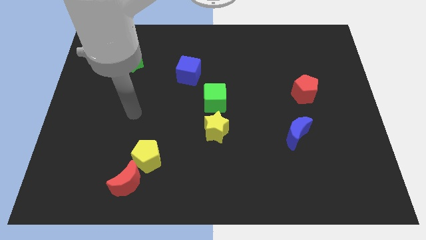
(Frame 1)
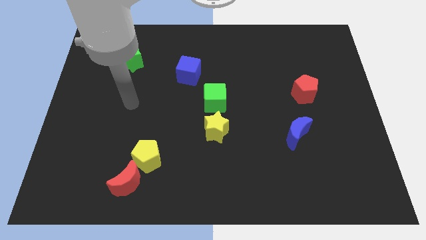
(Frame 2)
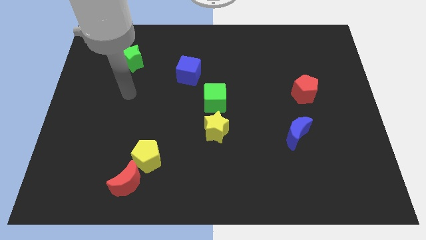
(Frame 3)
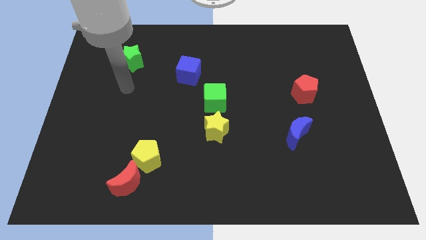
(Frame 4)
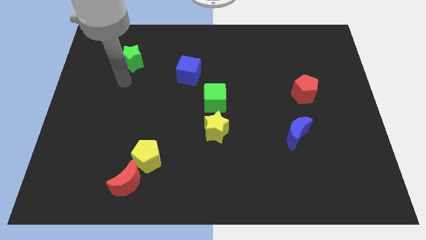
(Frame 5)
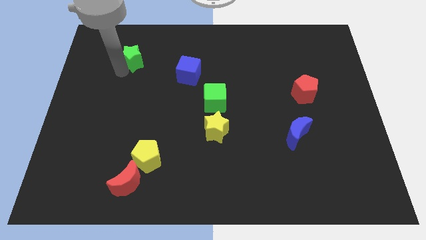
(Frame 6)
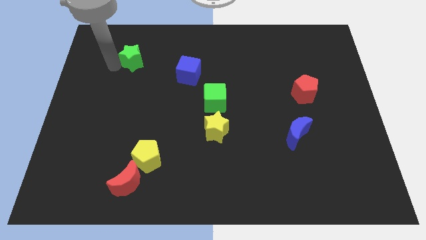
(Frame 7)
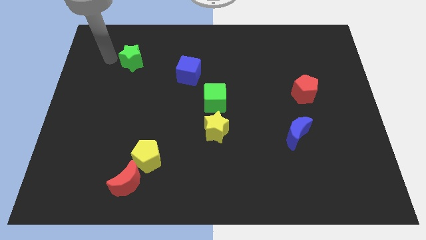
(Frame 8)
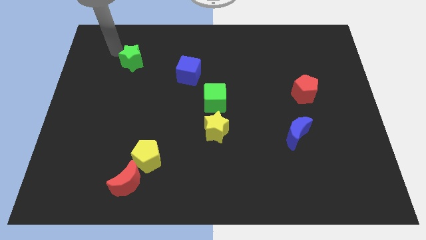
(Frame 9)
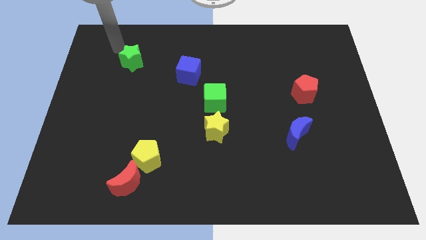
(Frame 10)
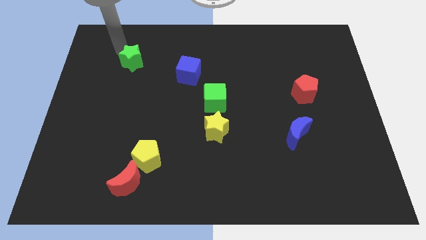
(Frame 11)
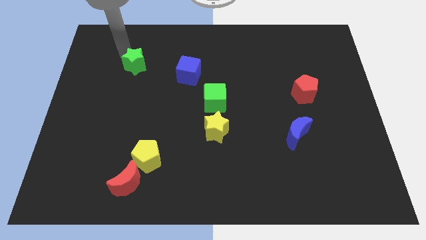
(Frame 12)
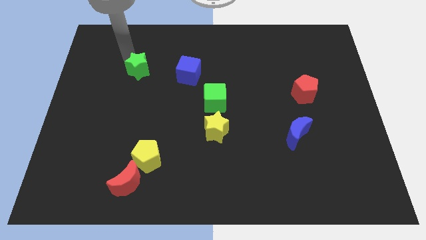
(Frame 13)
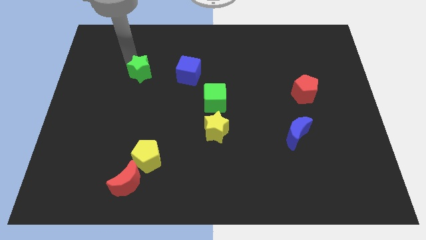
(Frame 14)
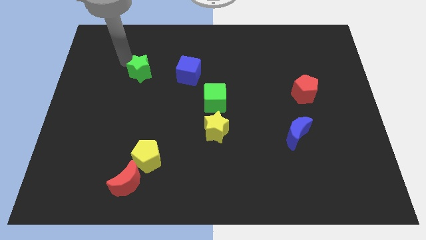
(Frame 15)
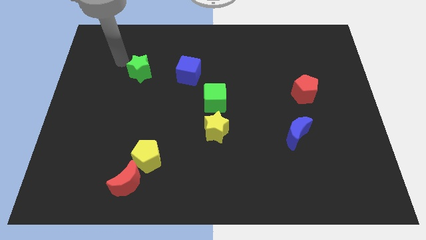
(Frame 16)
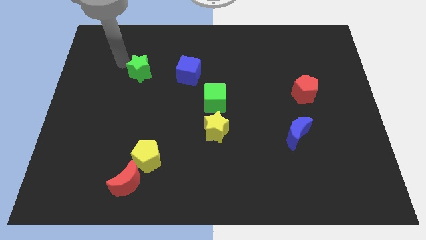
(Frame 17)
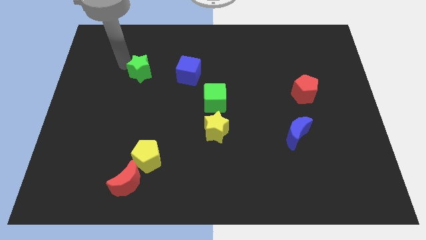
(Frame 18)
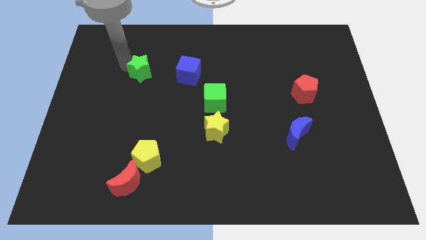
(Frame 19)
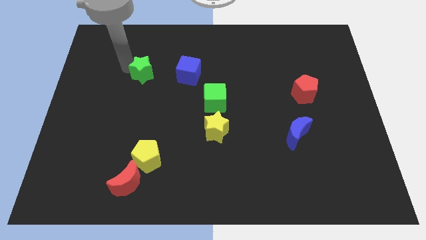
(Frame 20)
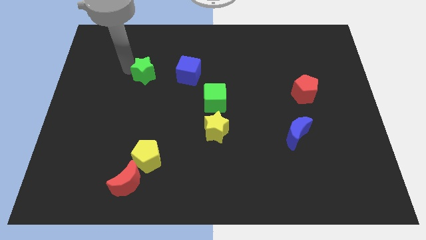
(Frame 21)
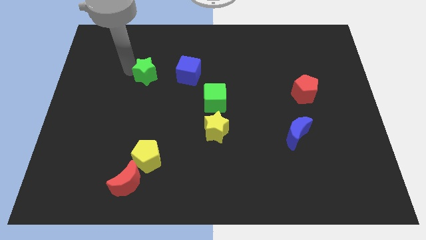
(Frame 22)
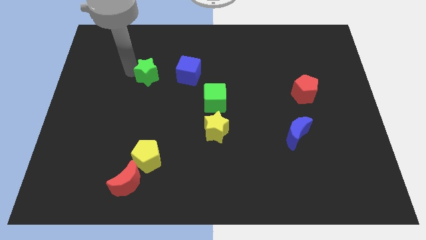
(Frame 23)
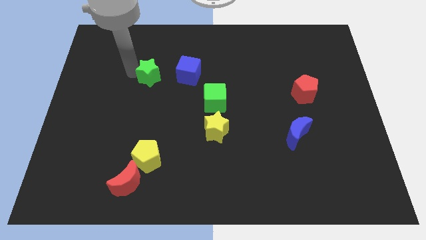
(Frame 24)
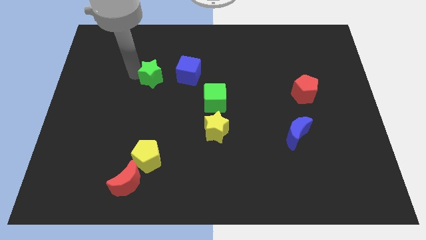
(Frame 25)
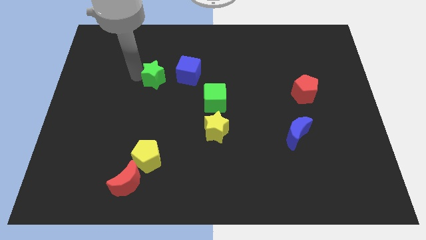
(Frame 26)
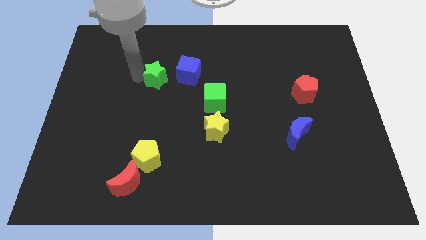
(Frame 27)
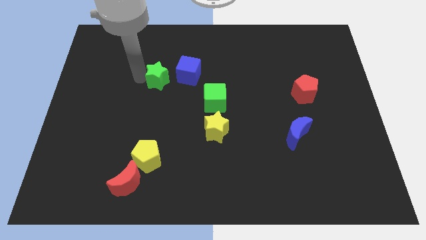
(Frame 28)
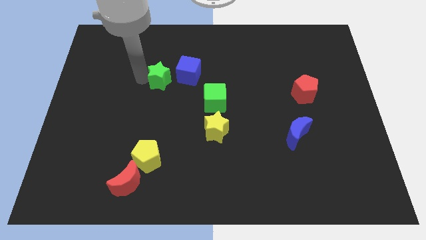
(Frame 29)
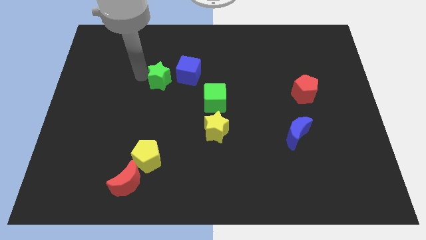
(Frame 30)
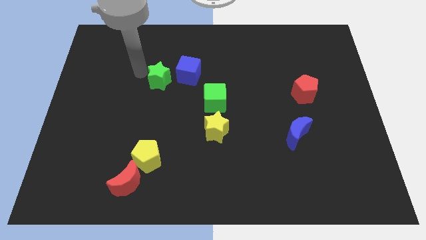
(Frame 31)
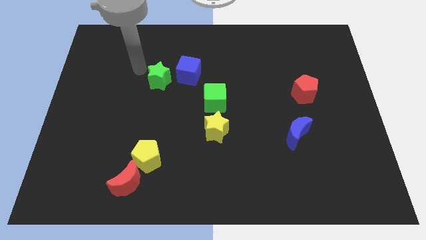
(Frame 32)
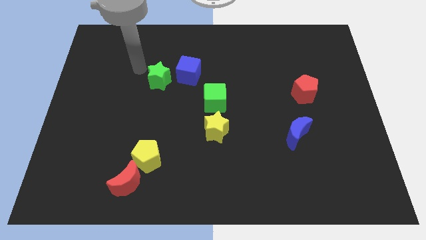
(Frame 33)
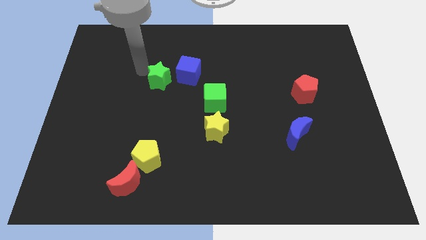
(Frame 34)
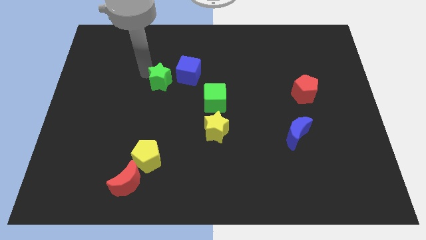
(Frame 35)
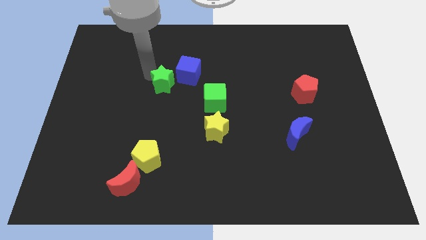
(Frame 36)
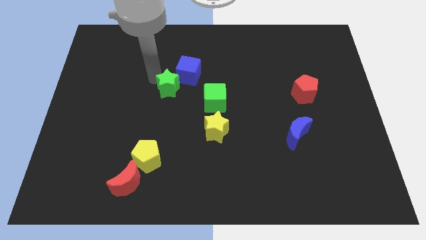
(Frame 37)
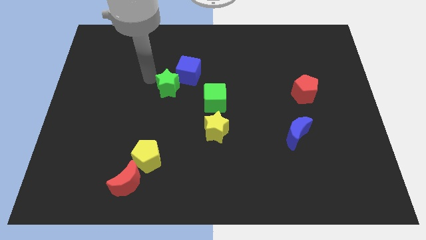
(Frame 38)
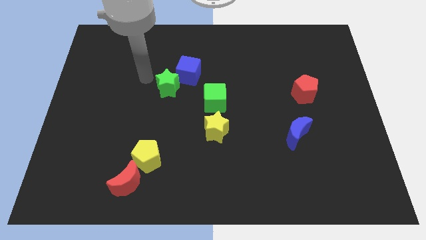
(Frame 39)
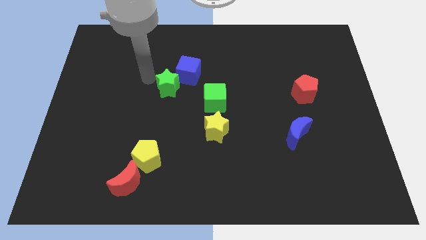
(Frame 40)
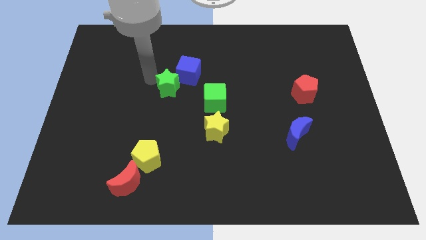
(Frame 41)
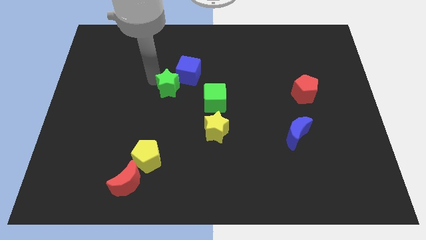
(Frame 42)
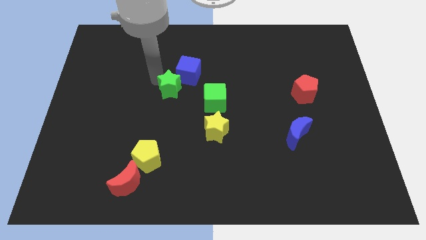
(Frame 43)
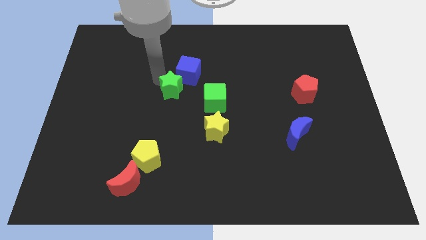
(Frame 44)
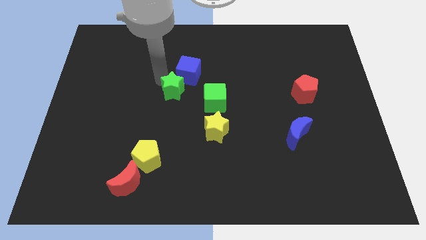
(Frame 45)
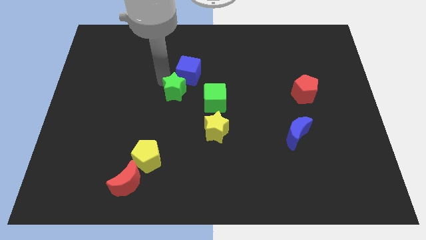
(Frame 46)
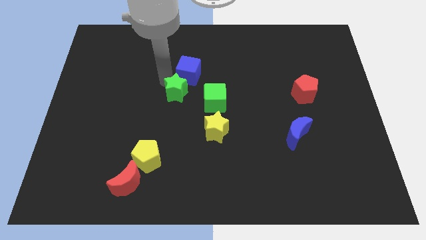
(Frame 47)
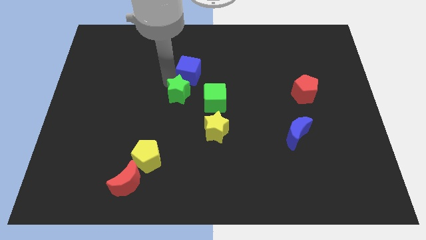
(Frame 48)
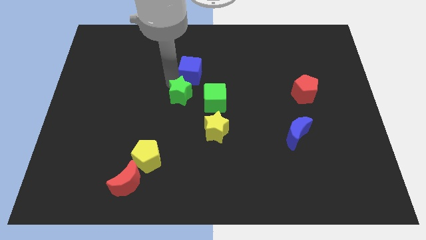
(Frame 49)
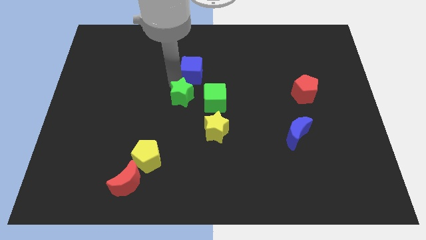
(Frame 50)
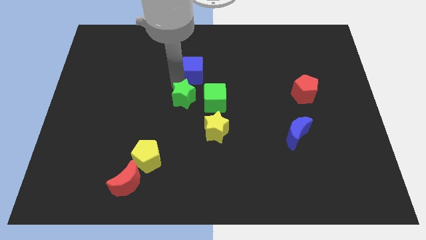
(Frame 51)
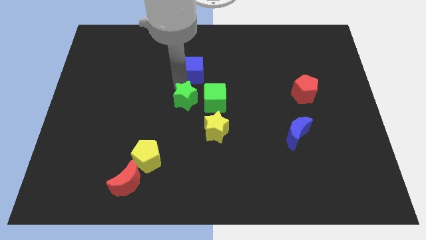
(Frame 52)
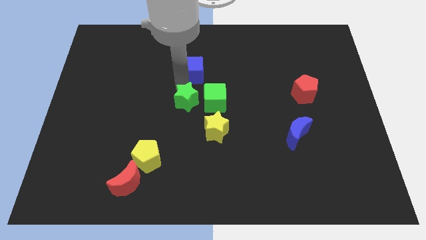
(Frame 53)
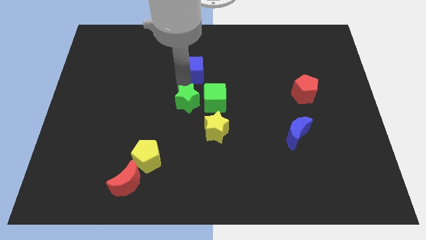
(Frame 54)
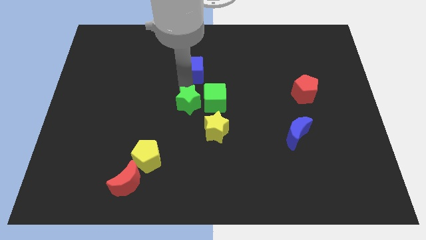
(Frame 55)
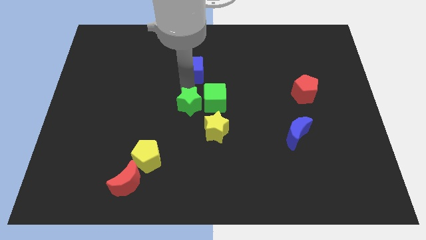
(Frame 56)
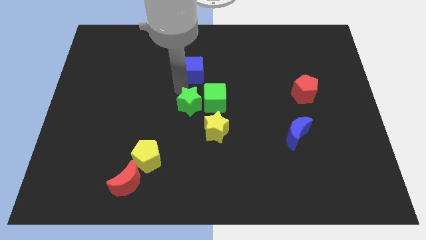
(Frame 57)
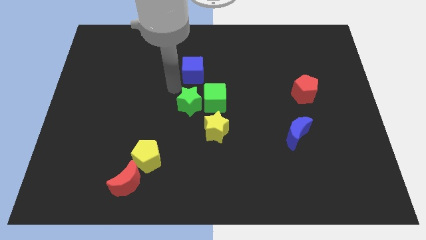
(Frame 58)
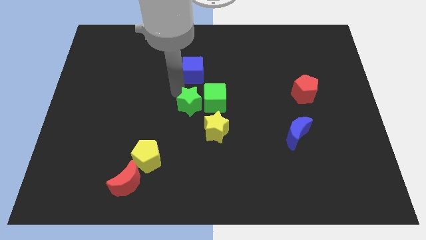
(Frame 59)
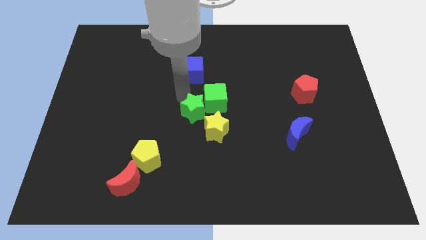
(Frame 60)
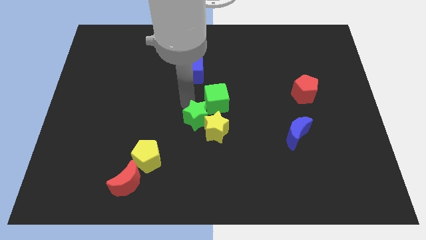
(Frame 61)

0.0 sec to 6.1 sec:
slide the green star to the yellow star

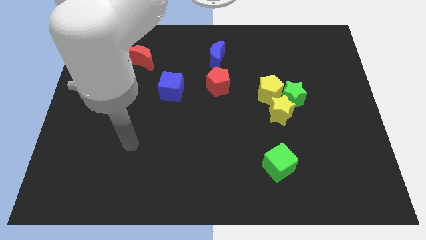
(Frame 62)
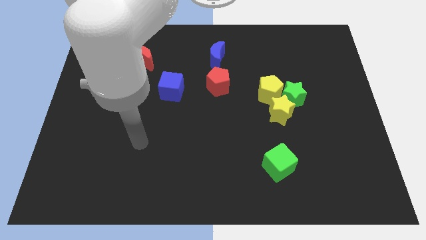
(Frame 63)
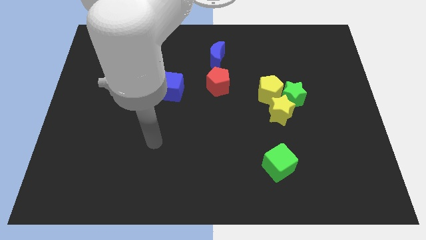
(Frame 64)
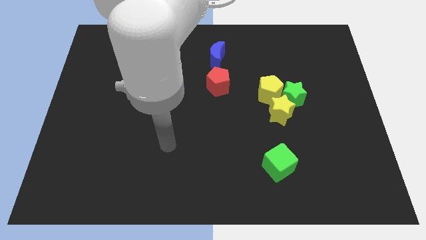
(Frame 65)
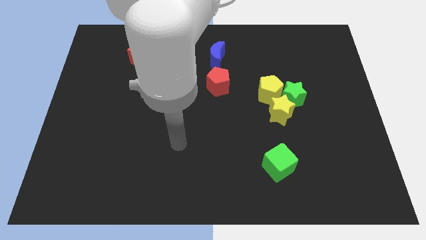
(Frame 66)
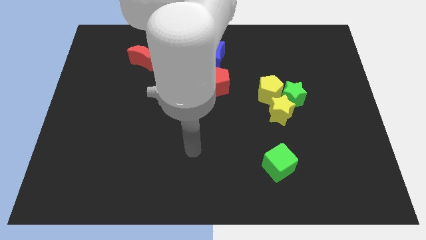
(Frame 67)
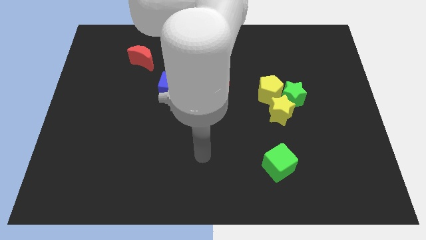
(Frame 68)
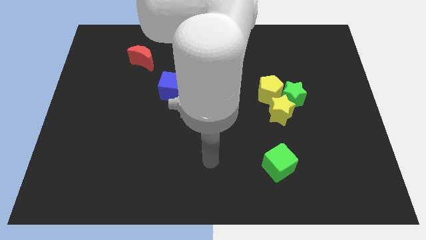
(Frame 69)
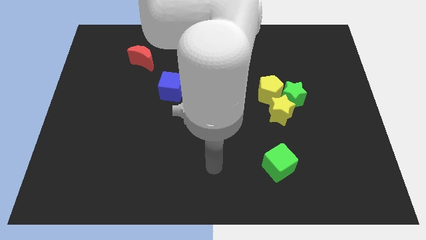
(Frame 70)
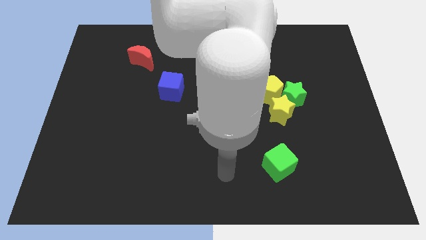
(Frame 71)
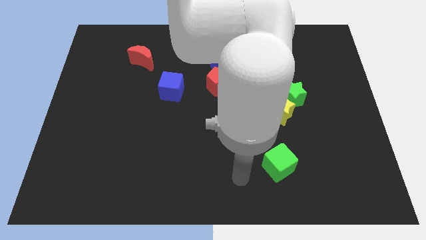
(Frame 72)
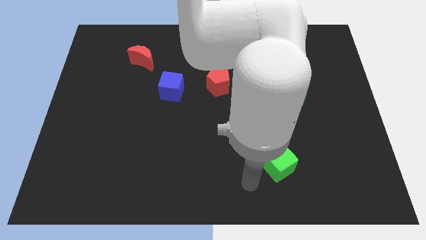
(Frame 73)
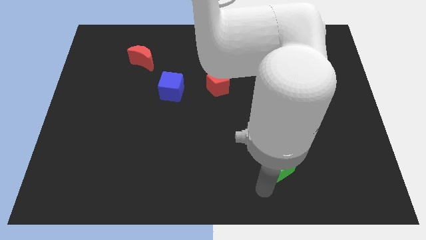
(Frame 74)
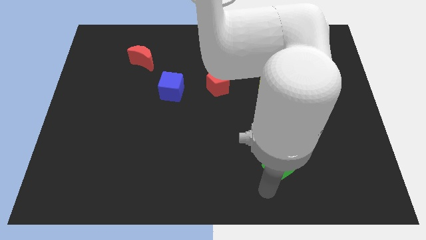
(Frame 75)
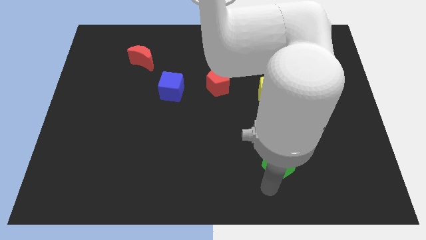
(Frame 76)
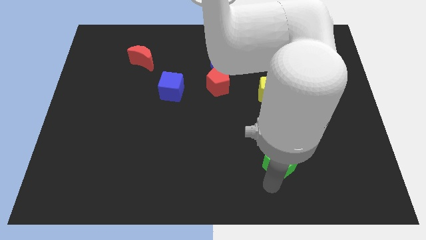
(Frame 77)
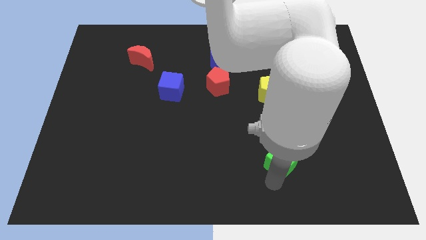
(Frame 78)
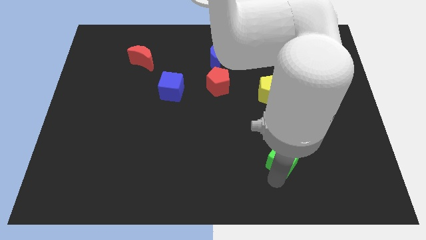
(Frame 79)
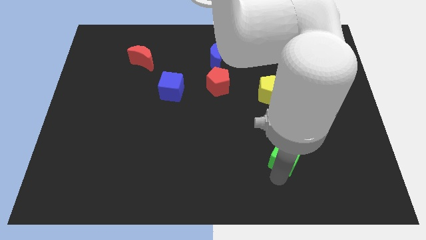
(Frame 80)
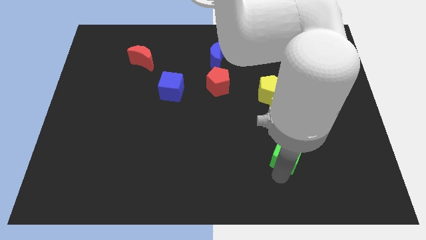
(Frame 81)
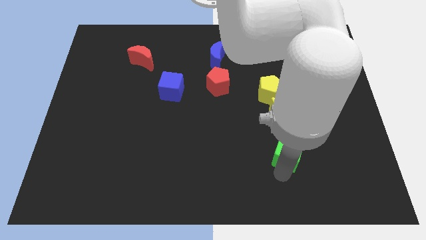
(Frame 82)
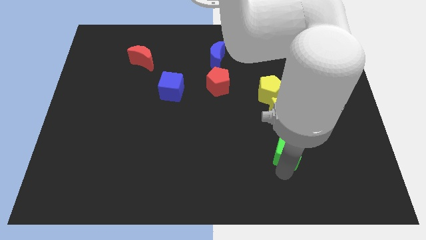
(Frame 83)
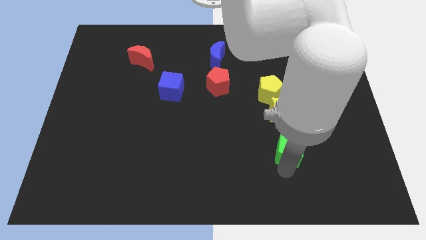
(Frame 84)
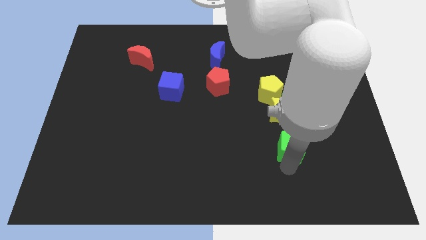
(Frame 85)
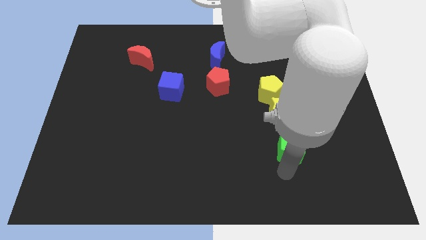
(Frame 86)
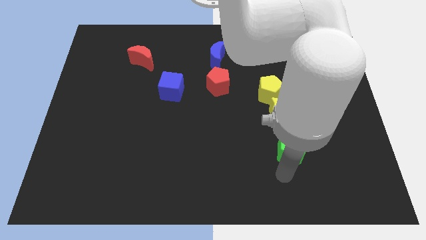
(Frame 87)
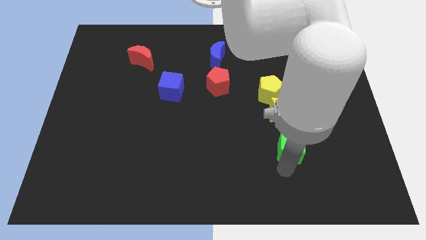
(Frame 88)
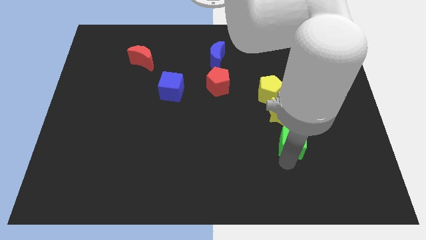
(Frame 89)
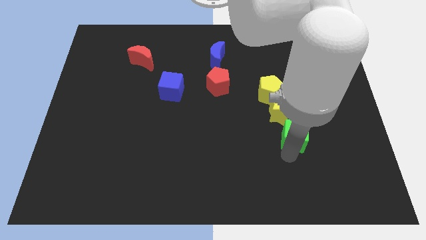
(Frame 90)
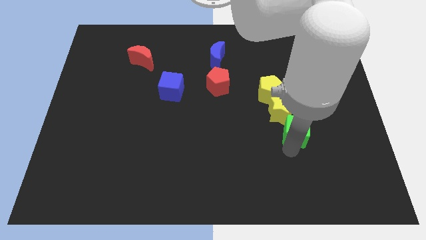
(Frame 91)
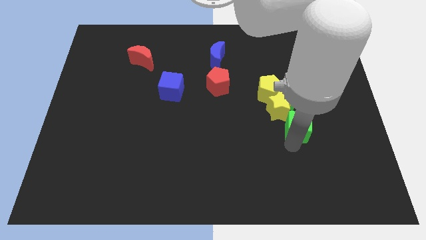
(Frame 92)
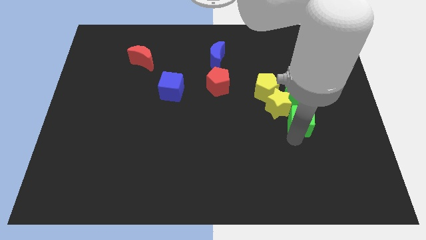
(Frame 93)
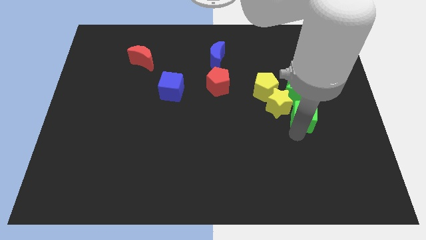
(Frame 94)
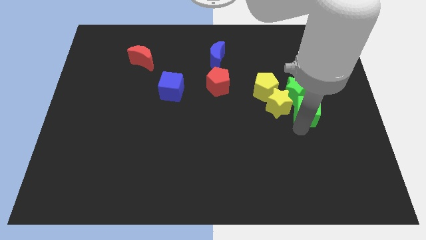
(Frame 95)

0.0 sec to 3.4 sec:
slide the green cube towards the green star
